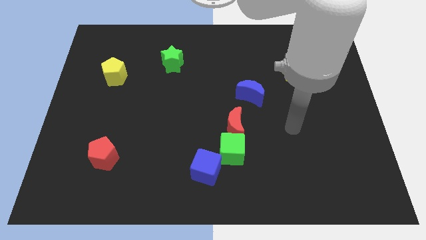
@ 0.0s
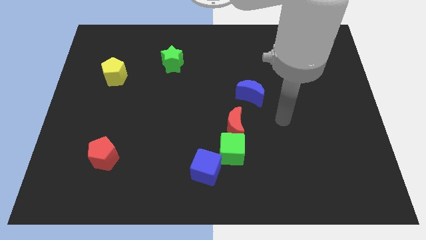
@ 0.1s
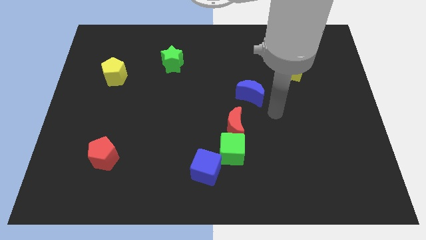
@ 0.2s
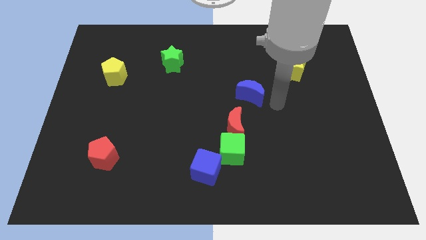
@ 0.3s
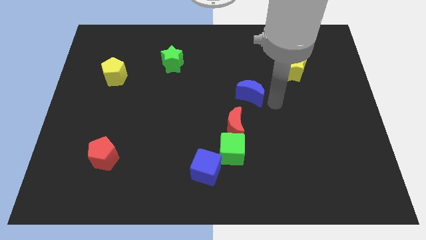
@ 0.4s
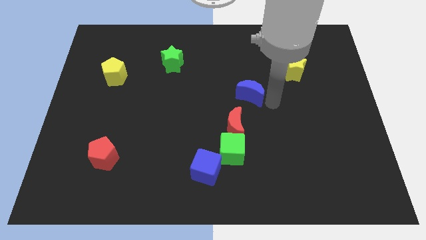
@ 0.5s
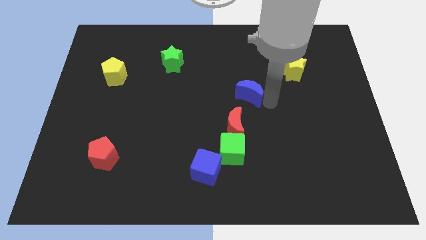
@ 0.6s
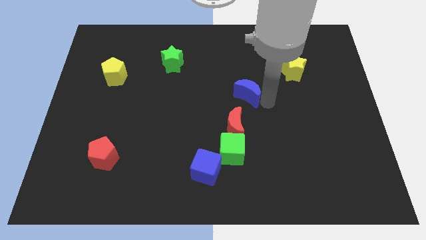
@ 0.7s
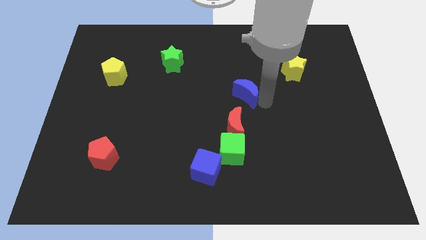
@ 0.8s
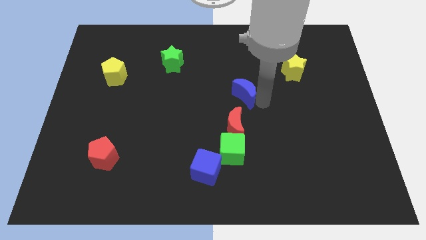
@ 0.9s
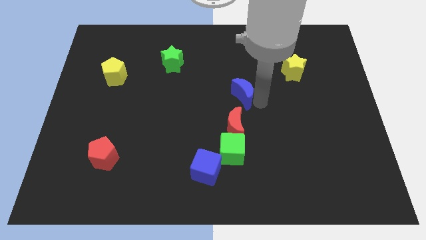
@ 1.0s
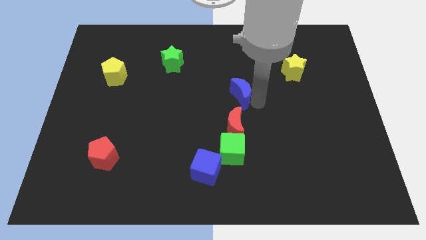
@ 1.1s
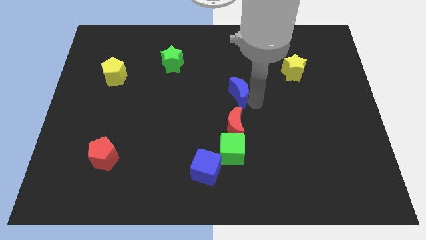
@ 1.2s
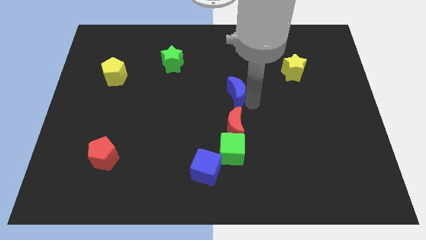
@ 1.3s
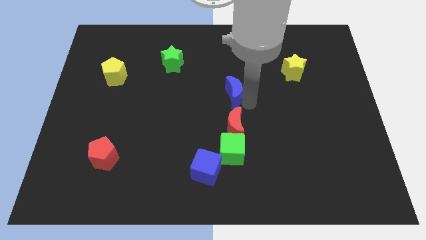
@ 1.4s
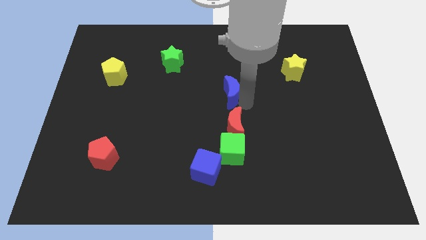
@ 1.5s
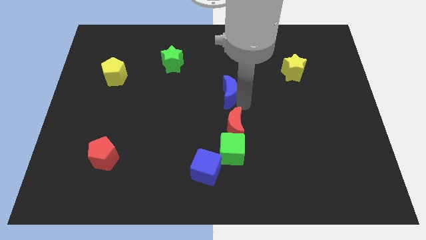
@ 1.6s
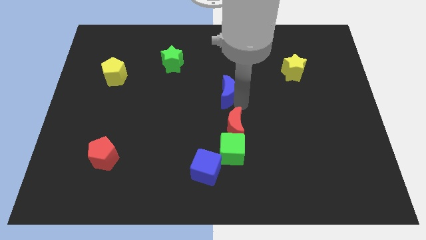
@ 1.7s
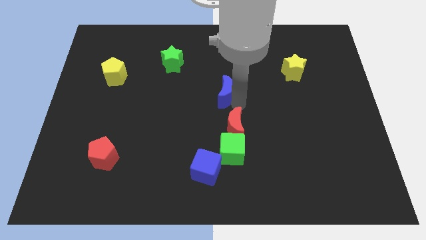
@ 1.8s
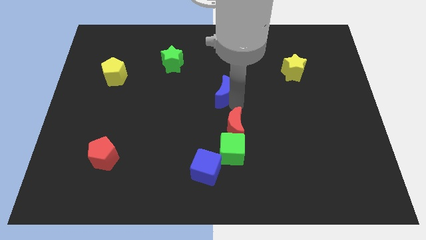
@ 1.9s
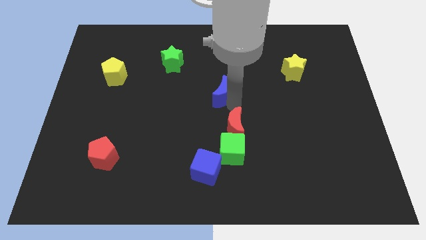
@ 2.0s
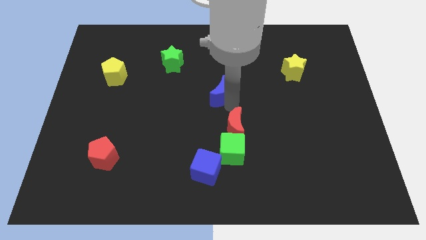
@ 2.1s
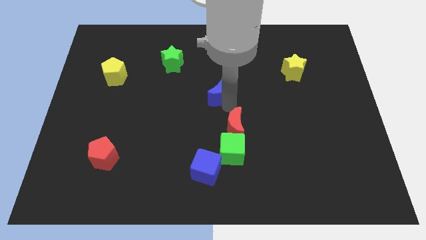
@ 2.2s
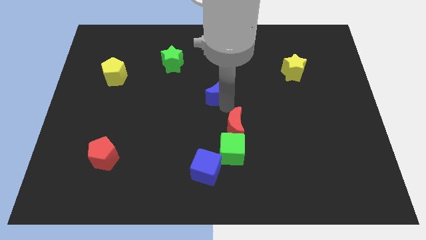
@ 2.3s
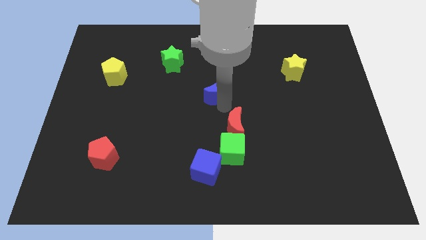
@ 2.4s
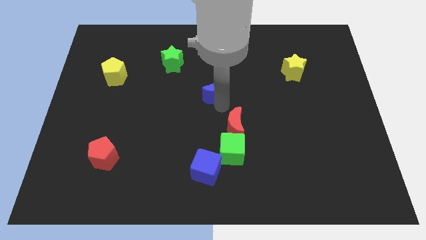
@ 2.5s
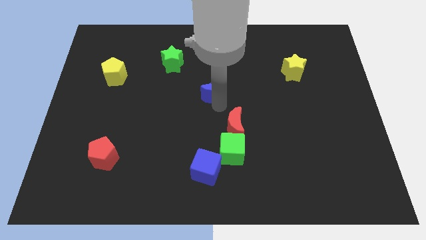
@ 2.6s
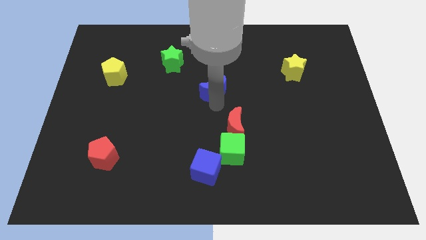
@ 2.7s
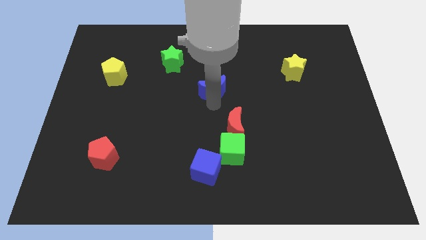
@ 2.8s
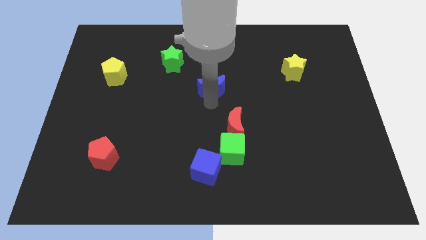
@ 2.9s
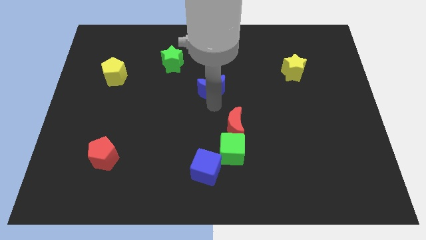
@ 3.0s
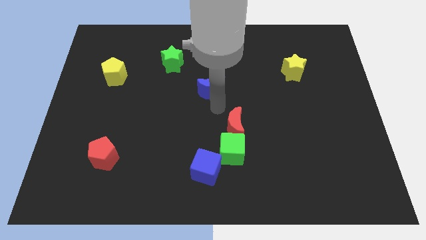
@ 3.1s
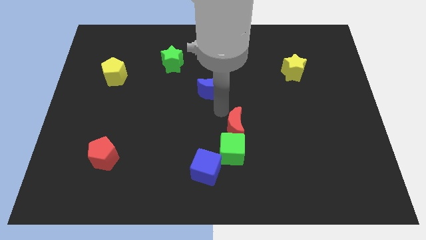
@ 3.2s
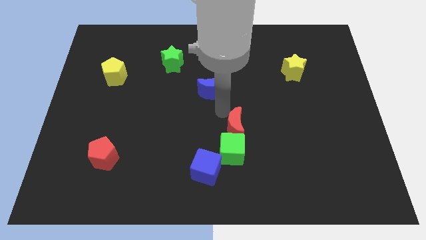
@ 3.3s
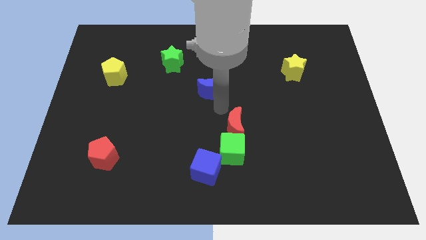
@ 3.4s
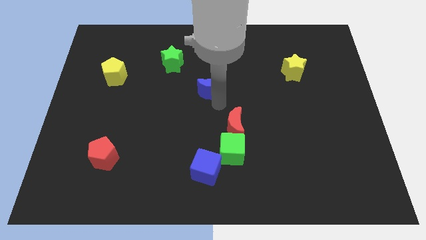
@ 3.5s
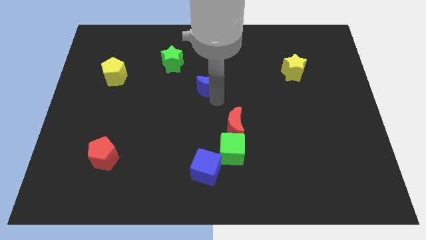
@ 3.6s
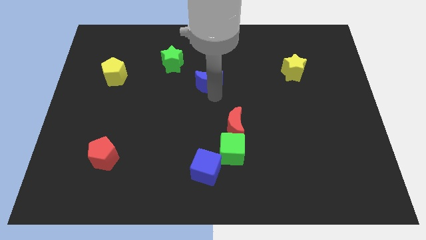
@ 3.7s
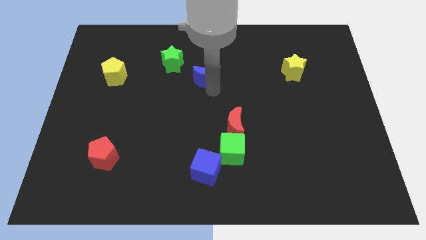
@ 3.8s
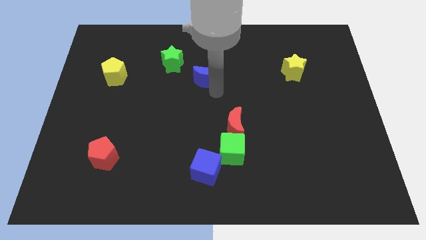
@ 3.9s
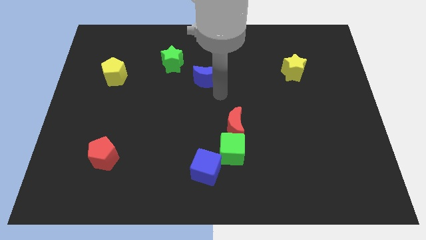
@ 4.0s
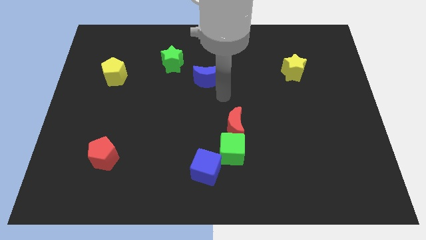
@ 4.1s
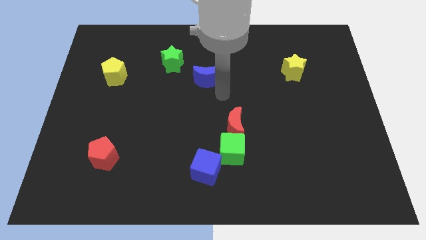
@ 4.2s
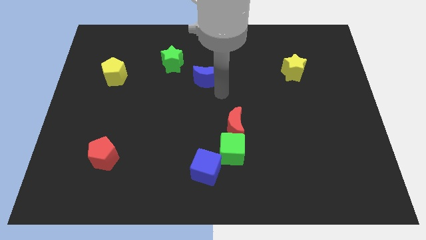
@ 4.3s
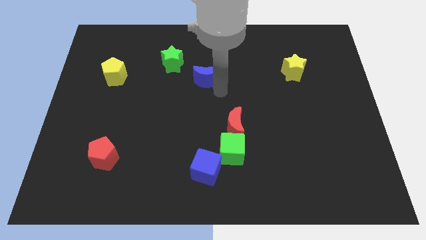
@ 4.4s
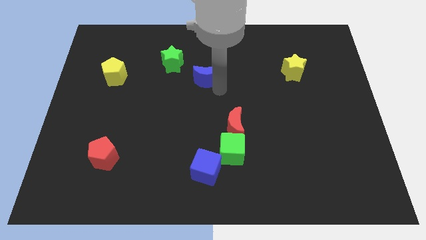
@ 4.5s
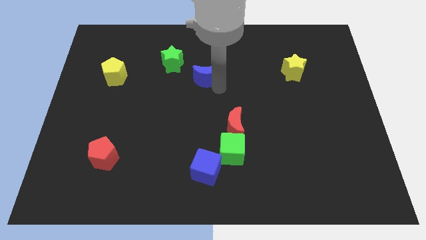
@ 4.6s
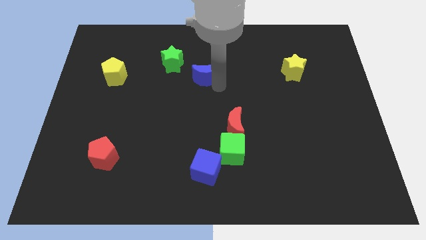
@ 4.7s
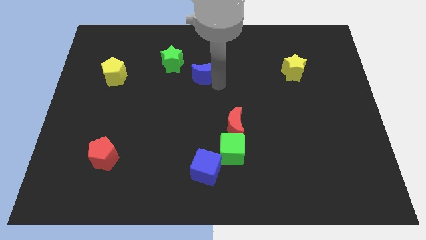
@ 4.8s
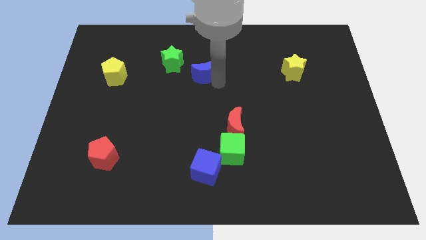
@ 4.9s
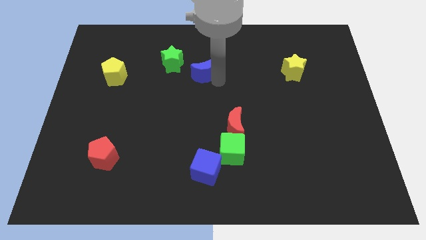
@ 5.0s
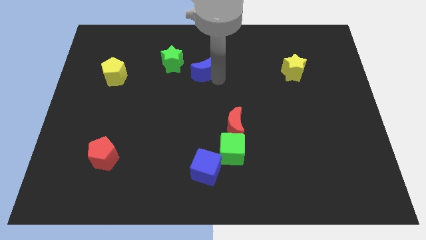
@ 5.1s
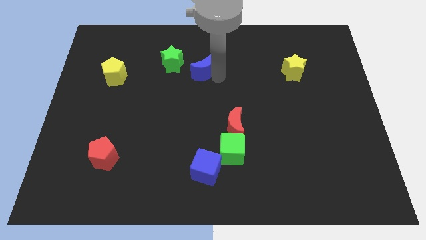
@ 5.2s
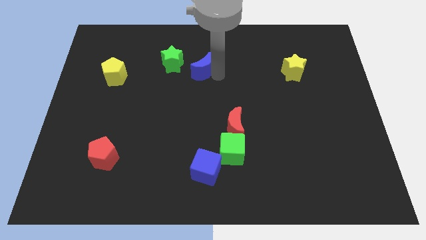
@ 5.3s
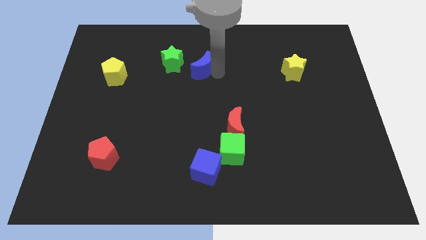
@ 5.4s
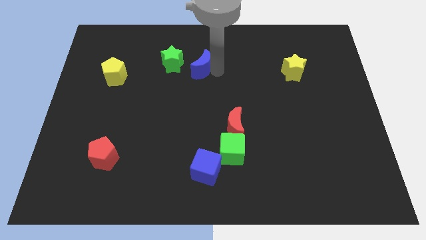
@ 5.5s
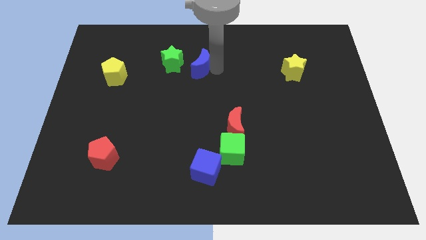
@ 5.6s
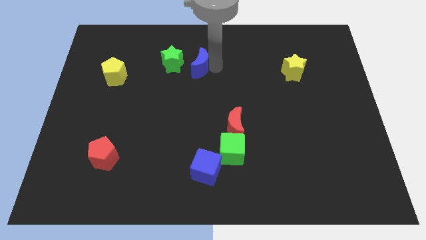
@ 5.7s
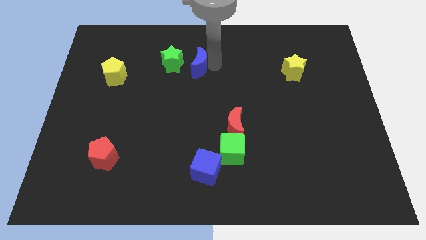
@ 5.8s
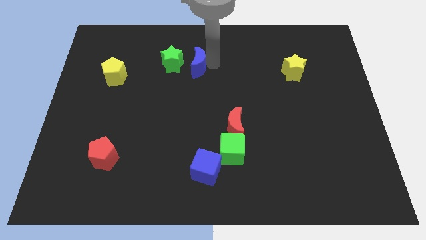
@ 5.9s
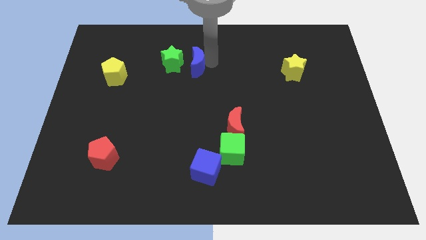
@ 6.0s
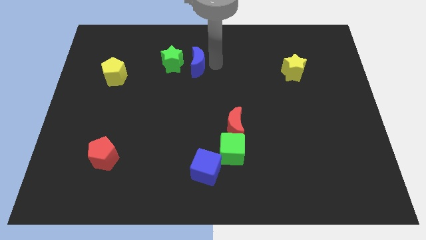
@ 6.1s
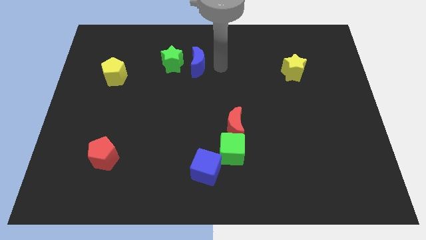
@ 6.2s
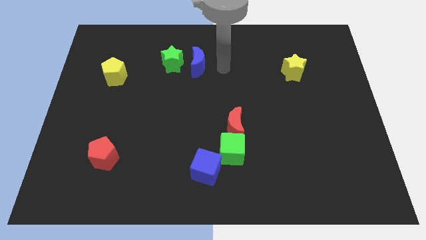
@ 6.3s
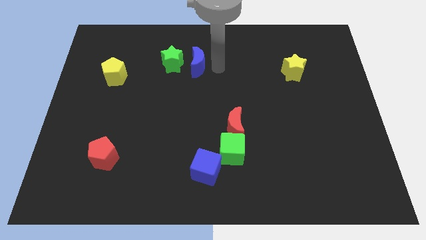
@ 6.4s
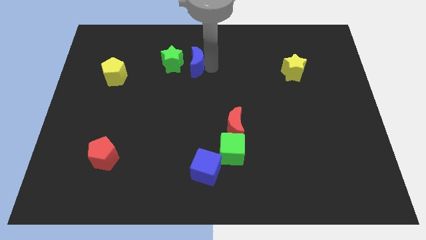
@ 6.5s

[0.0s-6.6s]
put the blue moon to the green star

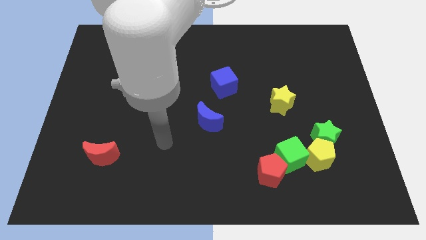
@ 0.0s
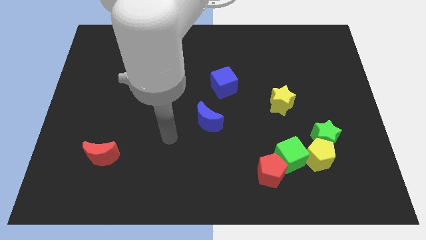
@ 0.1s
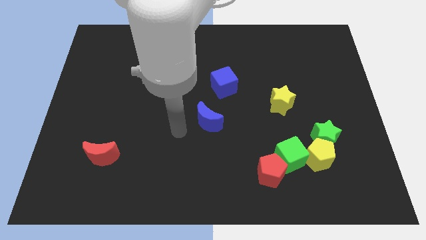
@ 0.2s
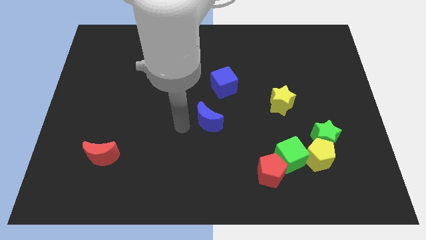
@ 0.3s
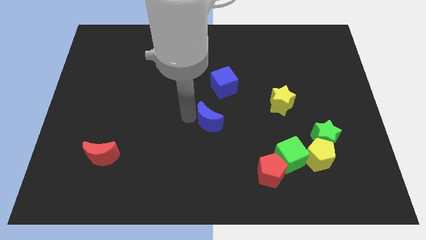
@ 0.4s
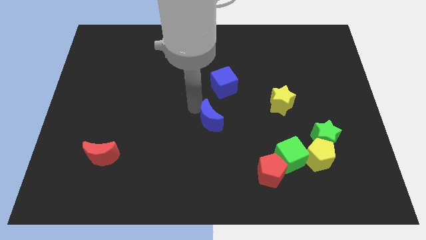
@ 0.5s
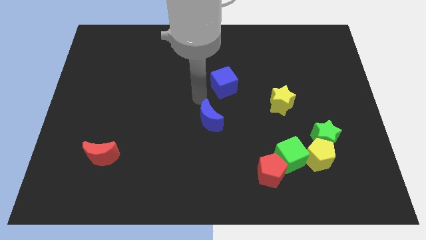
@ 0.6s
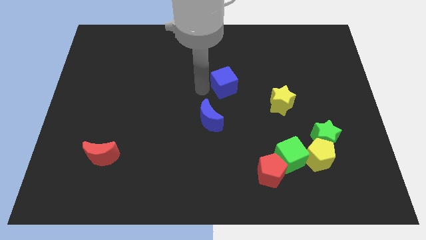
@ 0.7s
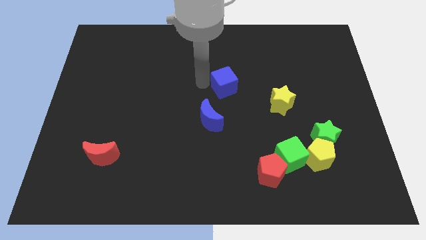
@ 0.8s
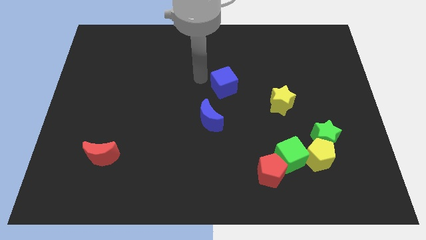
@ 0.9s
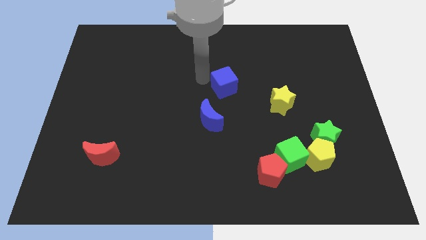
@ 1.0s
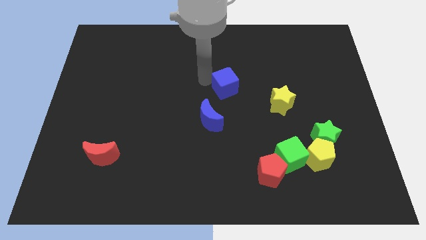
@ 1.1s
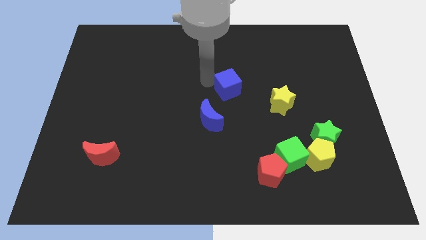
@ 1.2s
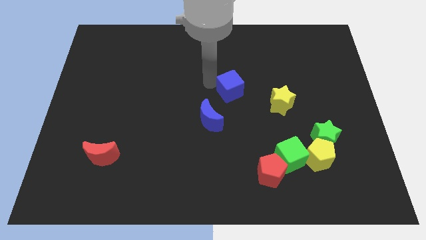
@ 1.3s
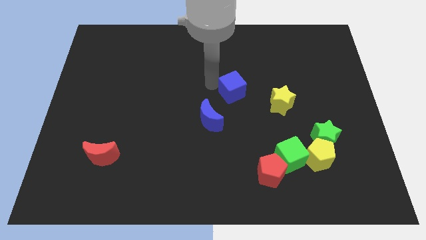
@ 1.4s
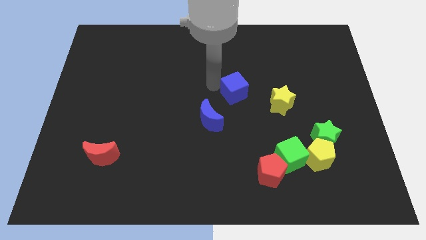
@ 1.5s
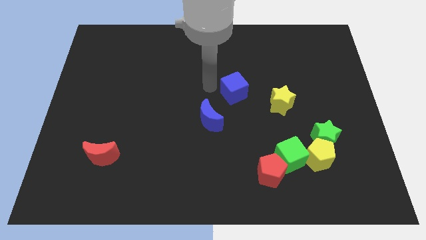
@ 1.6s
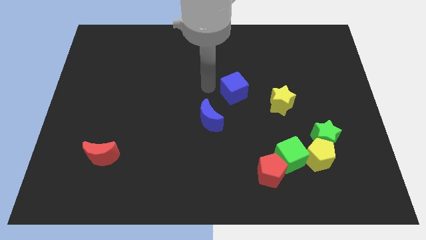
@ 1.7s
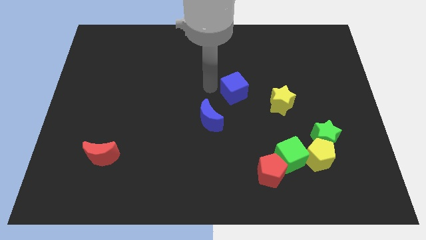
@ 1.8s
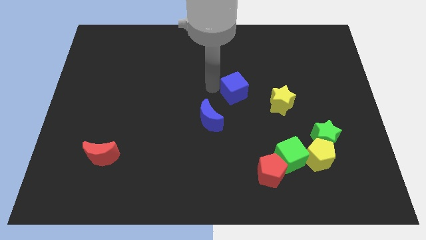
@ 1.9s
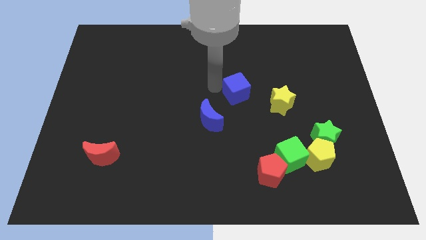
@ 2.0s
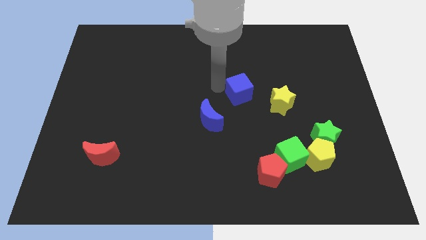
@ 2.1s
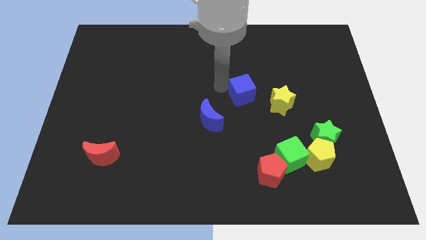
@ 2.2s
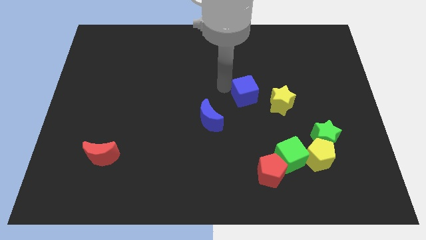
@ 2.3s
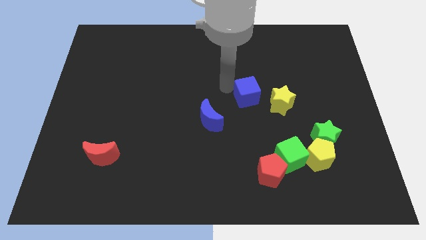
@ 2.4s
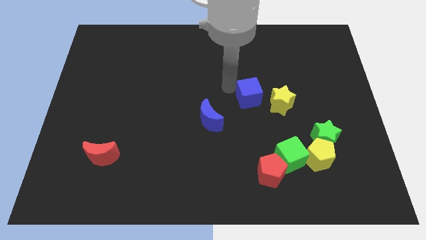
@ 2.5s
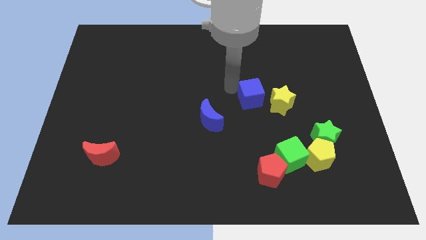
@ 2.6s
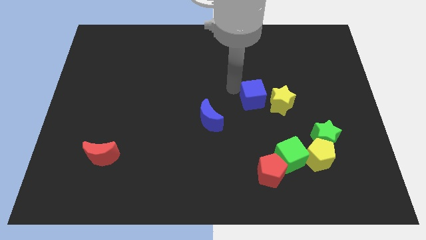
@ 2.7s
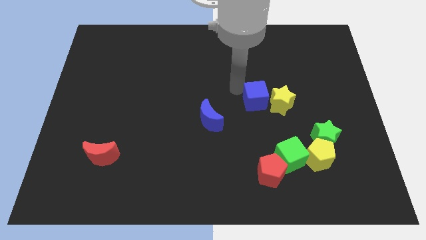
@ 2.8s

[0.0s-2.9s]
slide the blue cube close to the yellow star
